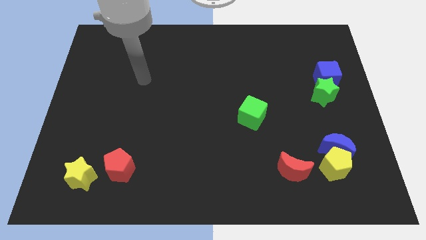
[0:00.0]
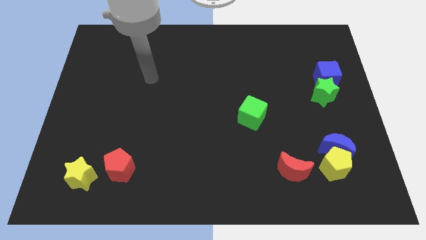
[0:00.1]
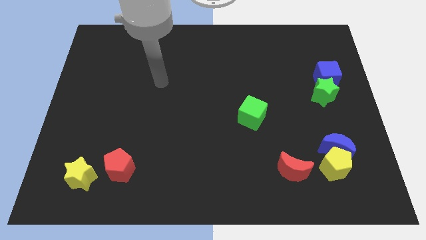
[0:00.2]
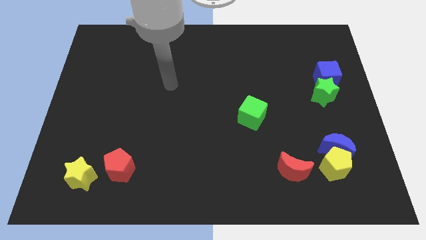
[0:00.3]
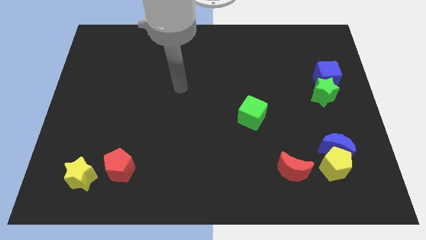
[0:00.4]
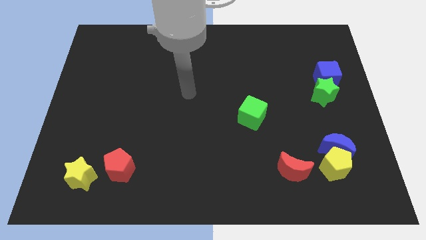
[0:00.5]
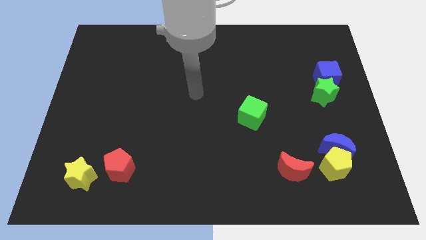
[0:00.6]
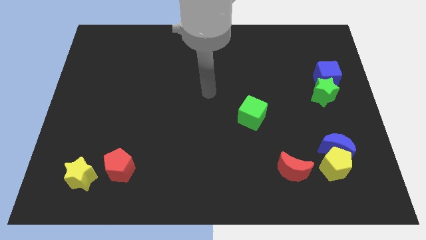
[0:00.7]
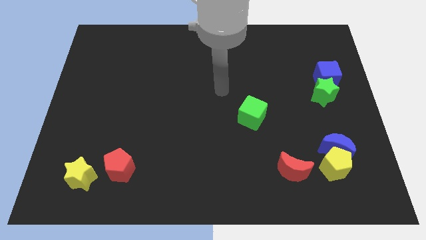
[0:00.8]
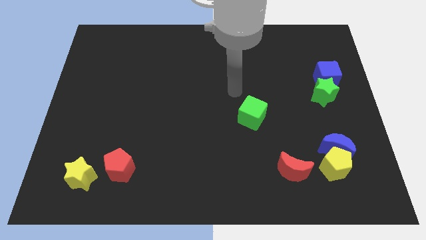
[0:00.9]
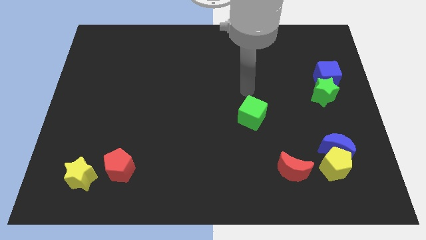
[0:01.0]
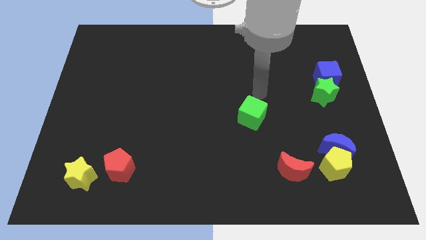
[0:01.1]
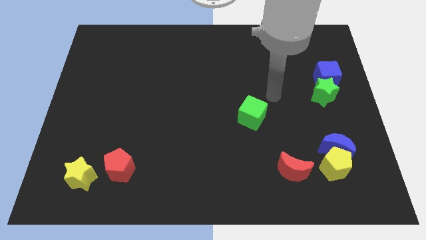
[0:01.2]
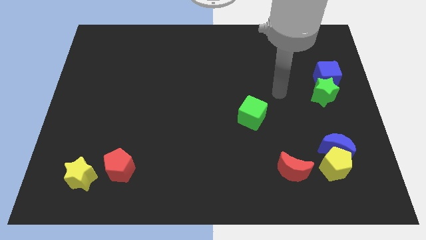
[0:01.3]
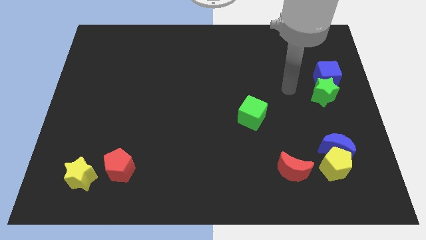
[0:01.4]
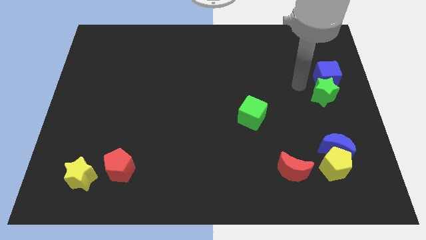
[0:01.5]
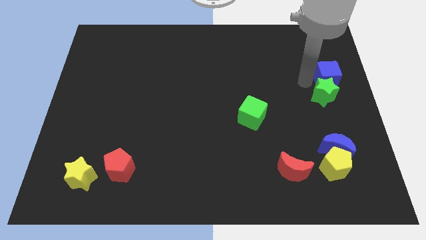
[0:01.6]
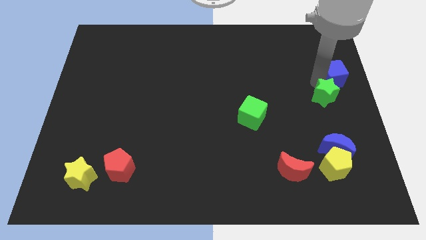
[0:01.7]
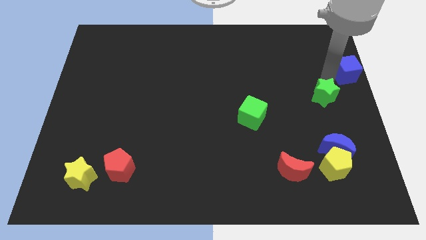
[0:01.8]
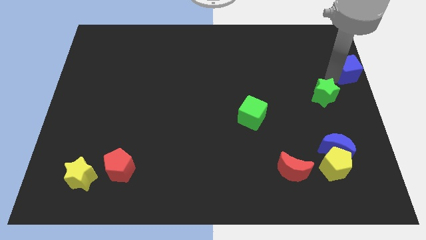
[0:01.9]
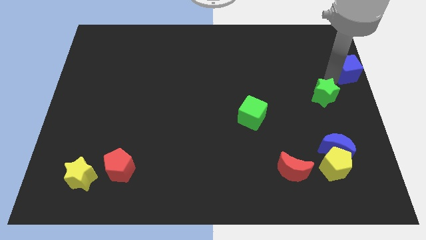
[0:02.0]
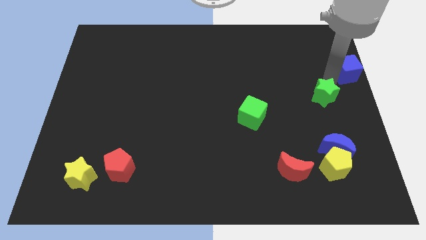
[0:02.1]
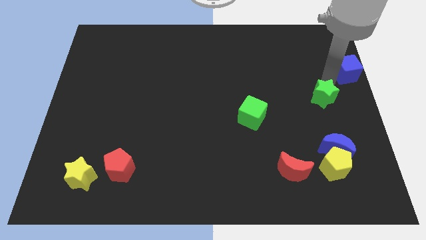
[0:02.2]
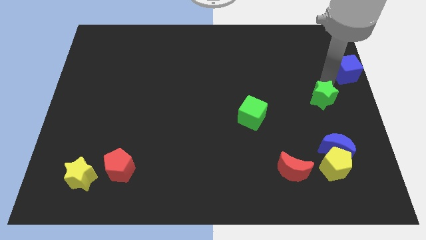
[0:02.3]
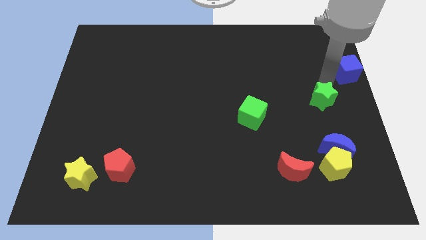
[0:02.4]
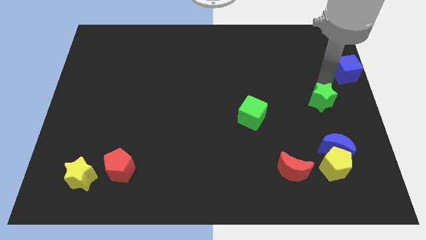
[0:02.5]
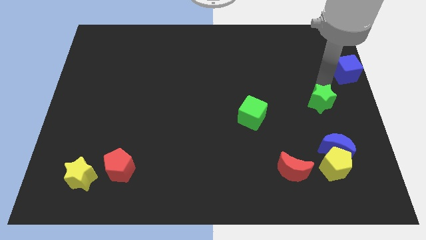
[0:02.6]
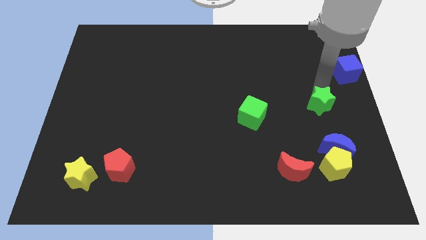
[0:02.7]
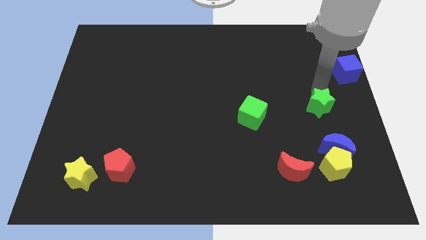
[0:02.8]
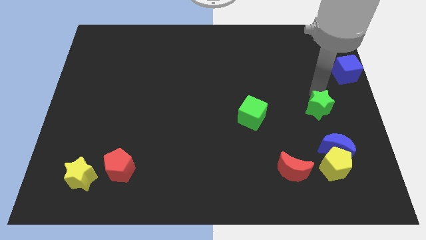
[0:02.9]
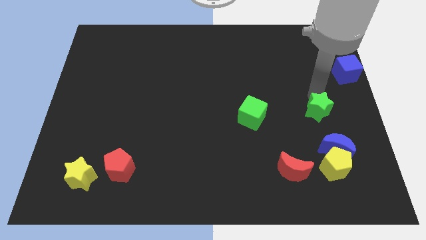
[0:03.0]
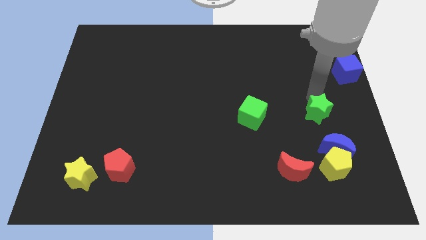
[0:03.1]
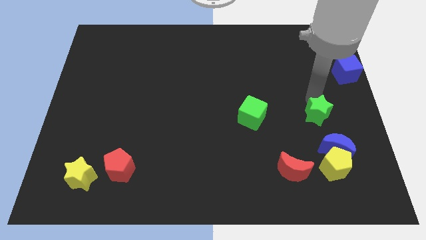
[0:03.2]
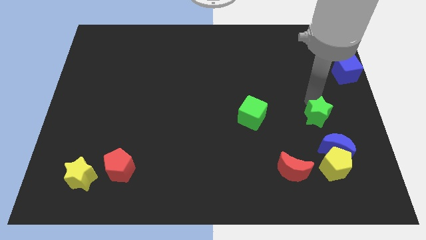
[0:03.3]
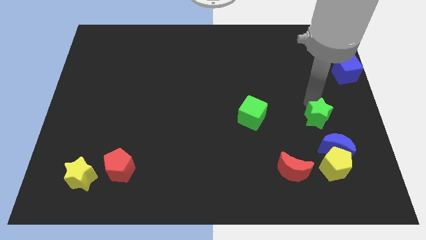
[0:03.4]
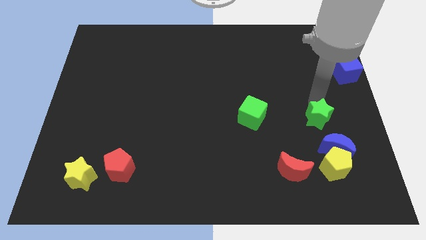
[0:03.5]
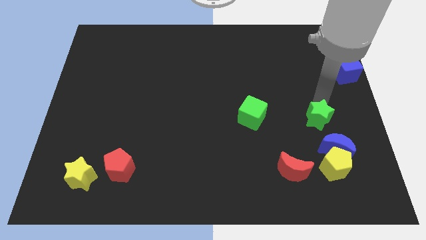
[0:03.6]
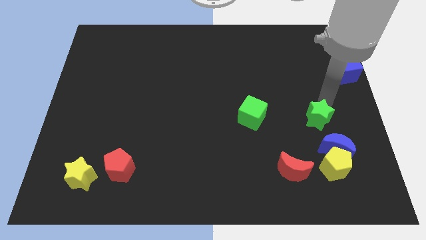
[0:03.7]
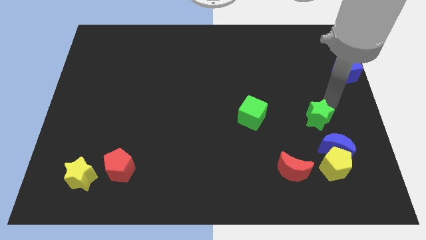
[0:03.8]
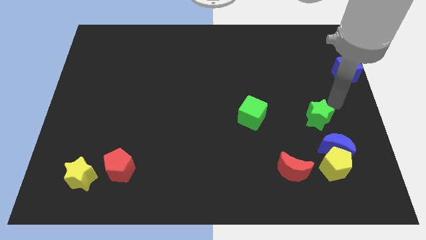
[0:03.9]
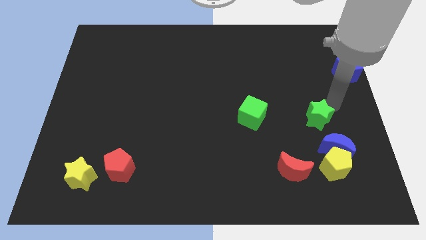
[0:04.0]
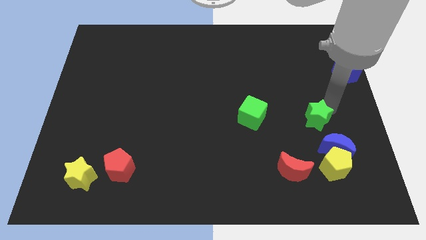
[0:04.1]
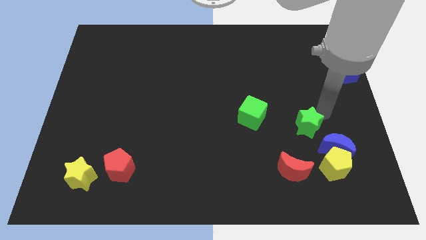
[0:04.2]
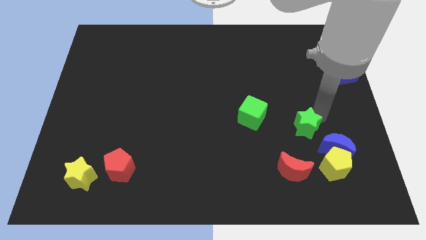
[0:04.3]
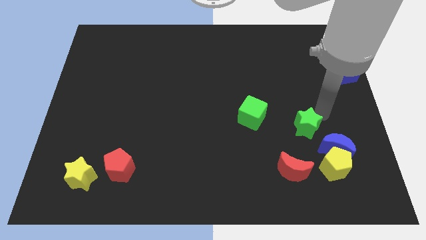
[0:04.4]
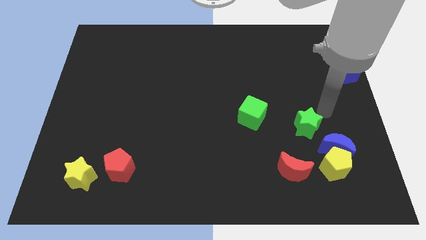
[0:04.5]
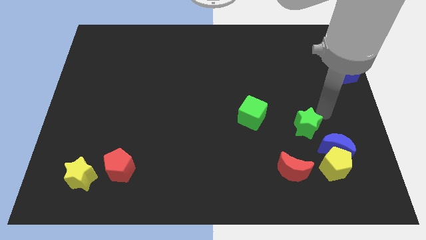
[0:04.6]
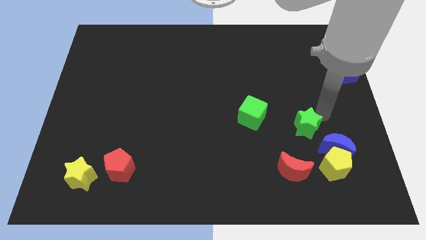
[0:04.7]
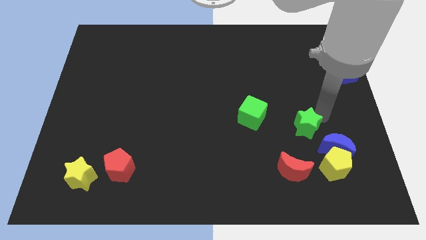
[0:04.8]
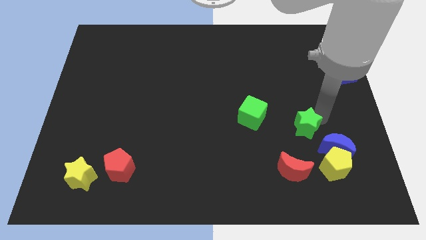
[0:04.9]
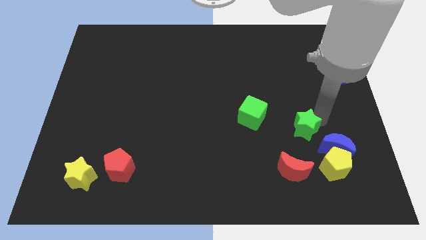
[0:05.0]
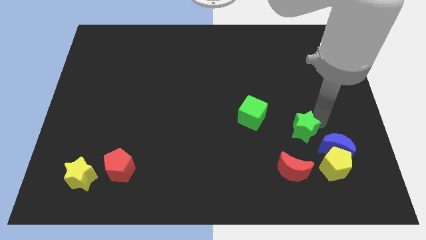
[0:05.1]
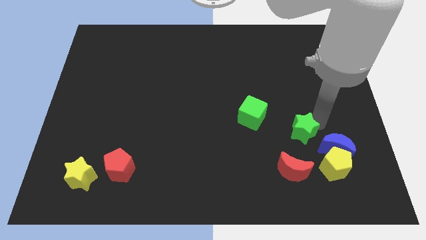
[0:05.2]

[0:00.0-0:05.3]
move the green star just left of the blue moon

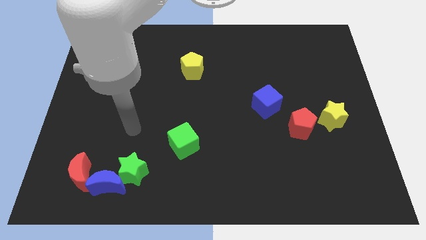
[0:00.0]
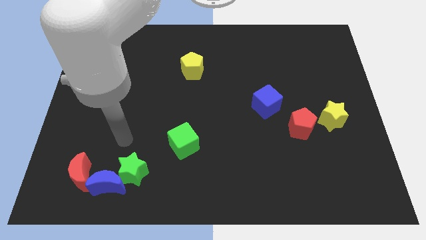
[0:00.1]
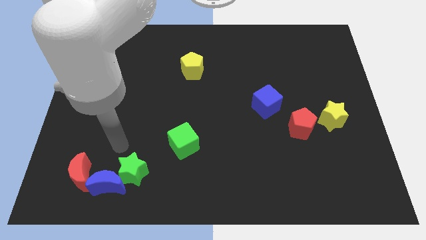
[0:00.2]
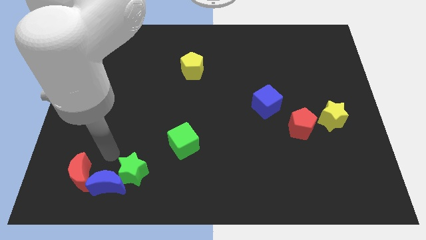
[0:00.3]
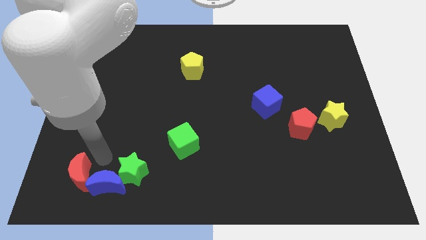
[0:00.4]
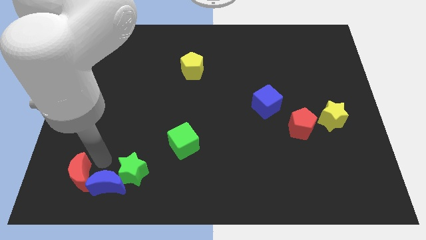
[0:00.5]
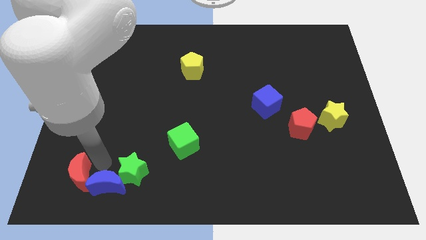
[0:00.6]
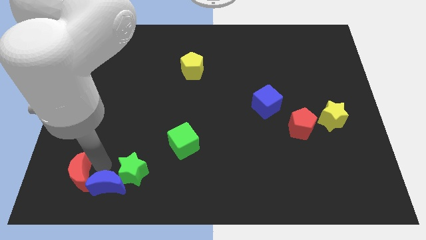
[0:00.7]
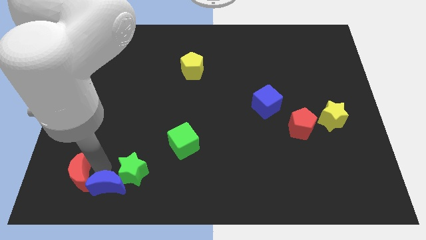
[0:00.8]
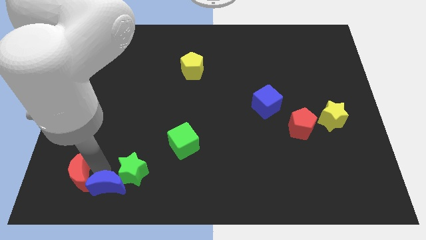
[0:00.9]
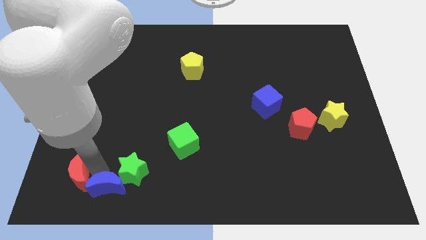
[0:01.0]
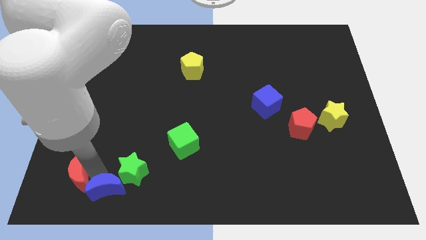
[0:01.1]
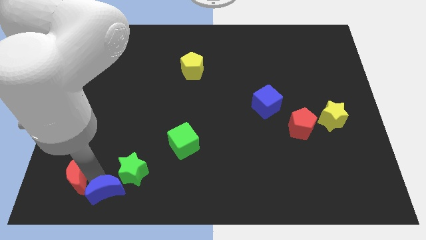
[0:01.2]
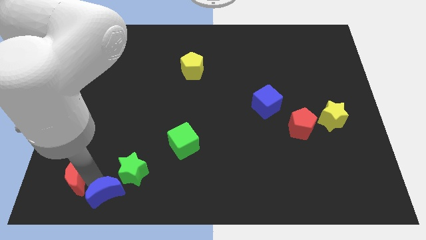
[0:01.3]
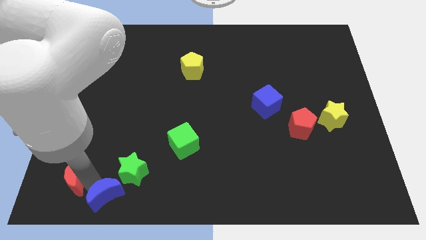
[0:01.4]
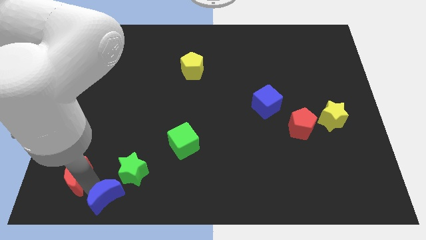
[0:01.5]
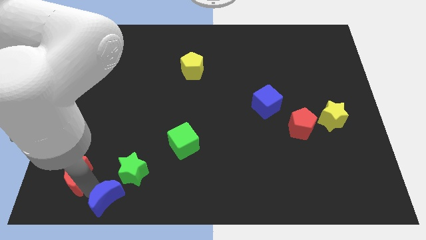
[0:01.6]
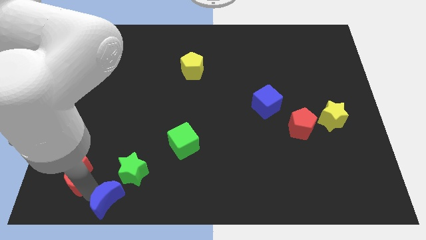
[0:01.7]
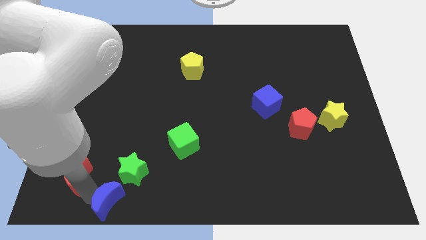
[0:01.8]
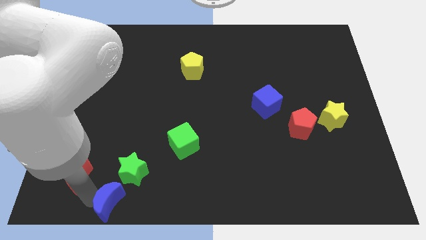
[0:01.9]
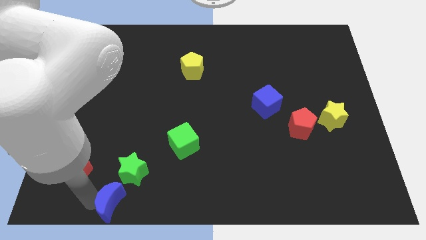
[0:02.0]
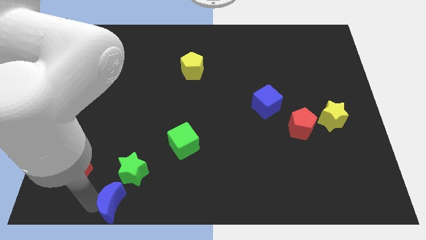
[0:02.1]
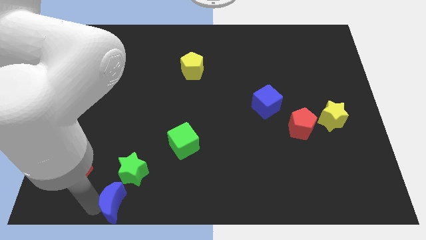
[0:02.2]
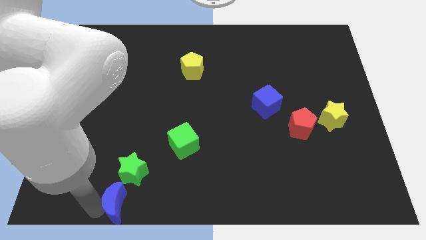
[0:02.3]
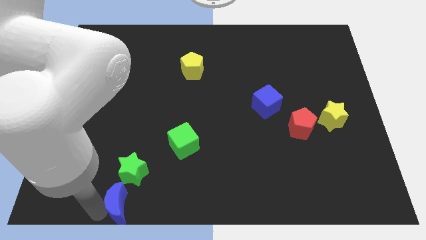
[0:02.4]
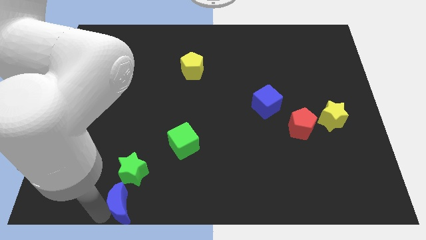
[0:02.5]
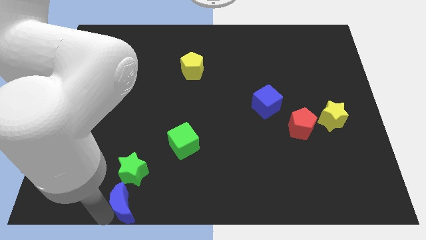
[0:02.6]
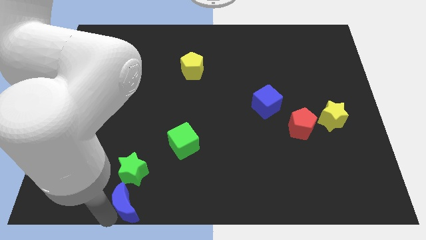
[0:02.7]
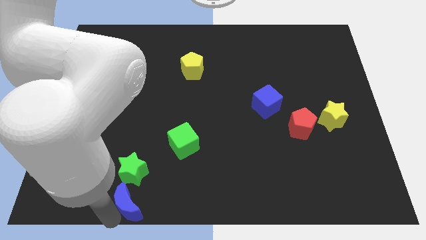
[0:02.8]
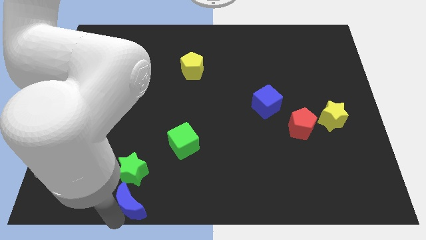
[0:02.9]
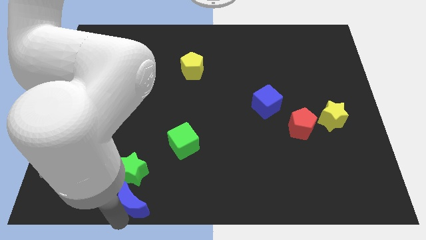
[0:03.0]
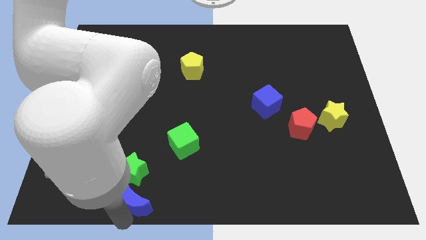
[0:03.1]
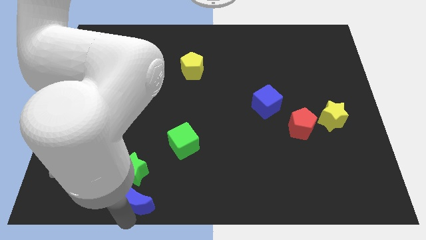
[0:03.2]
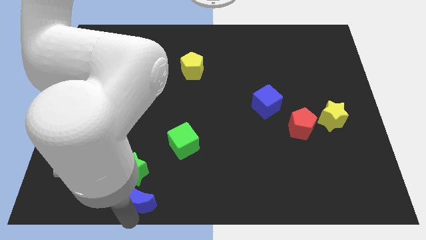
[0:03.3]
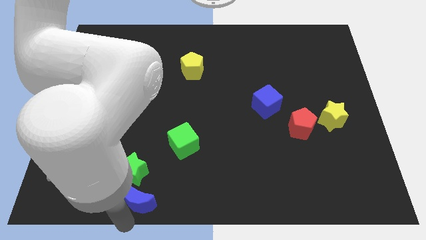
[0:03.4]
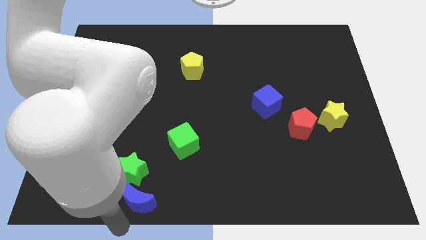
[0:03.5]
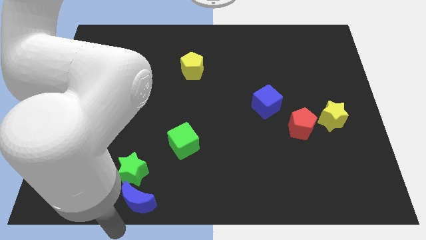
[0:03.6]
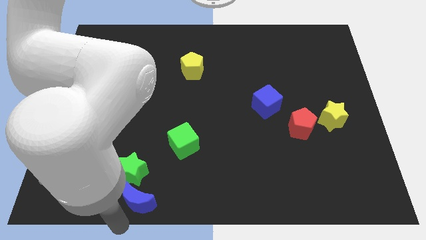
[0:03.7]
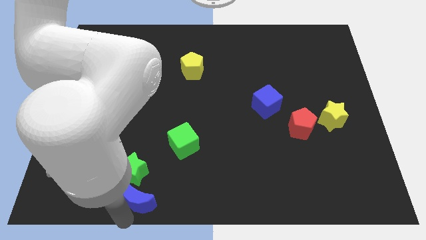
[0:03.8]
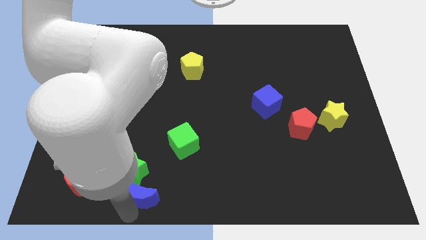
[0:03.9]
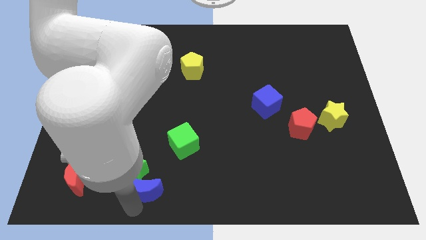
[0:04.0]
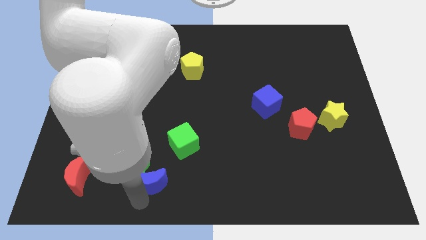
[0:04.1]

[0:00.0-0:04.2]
move the blue moon to the bottom left side of the green cube
